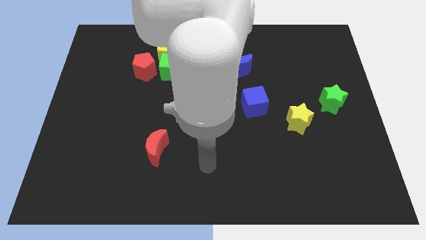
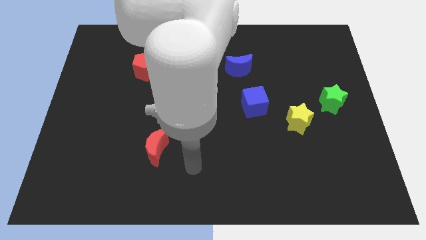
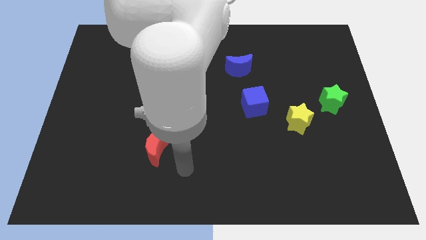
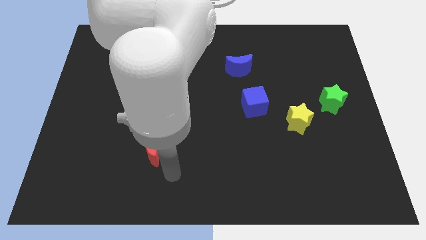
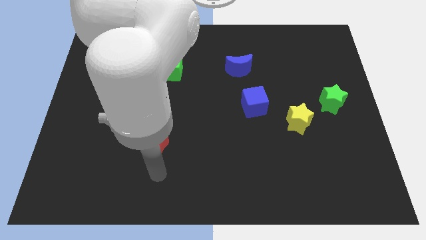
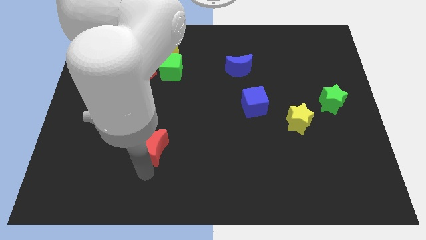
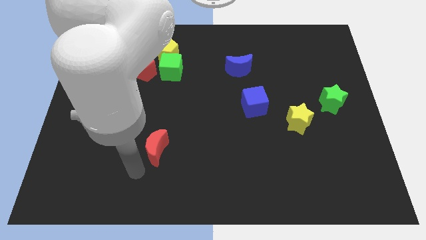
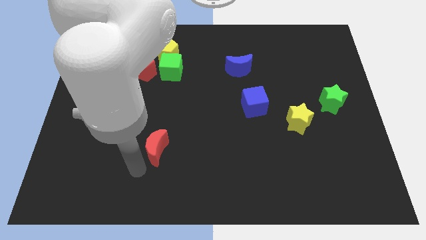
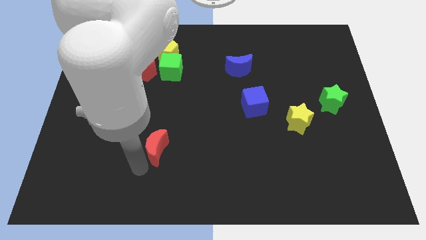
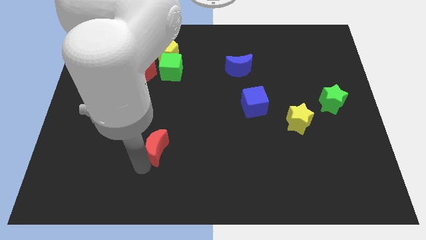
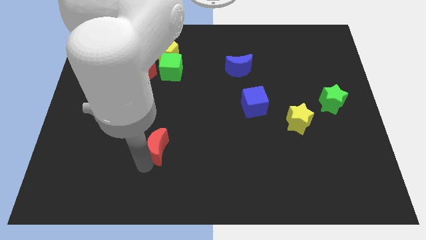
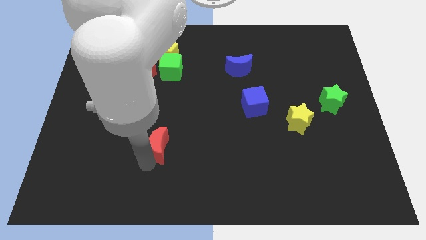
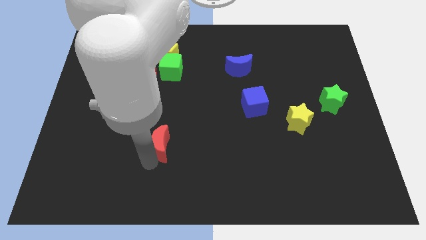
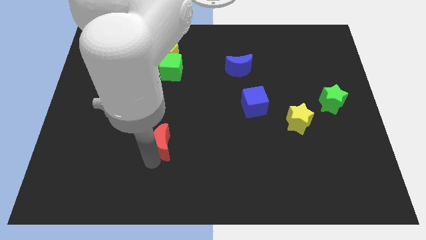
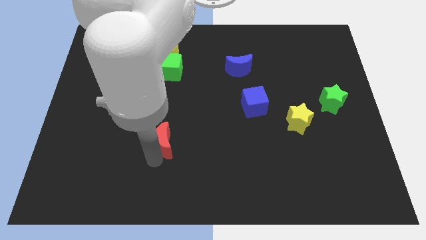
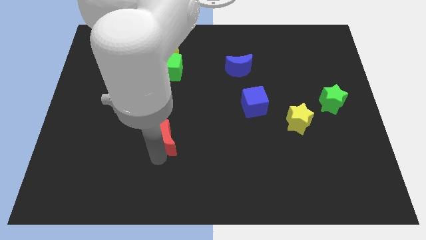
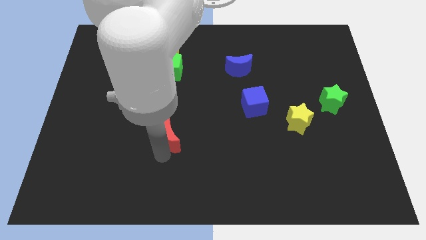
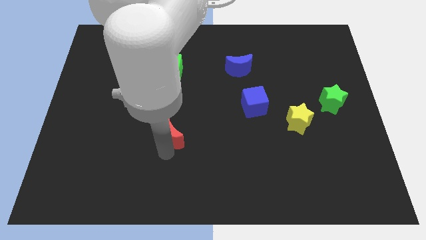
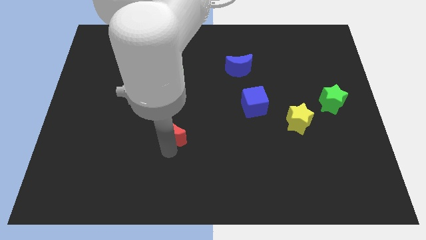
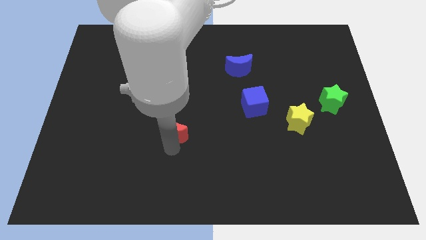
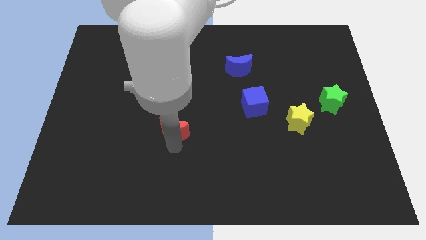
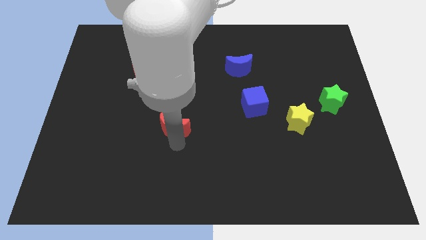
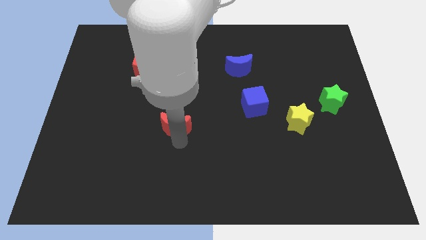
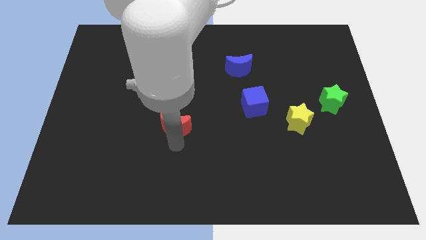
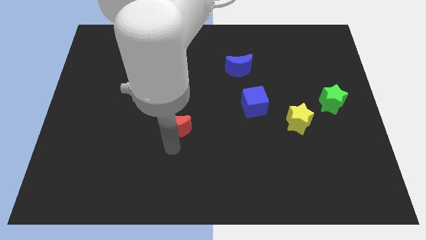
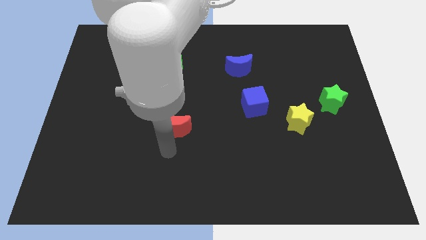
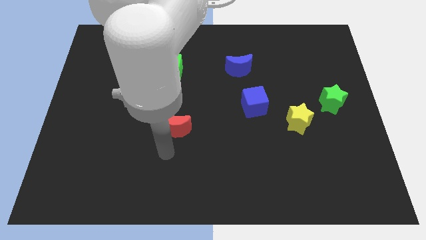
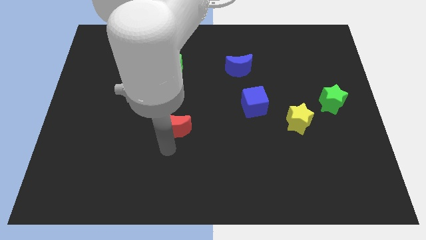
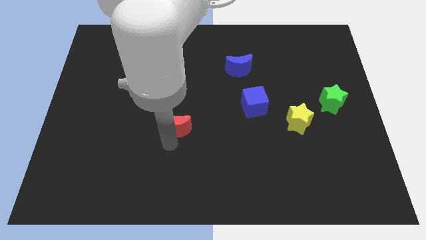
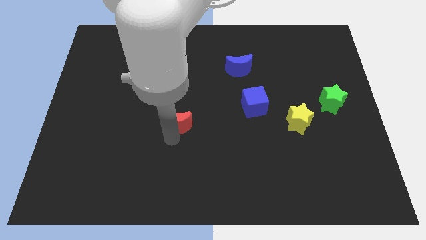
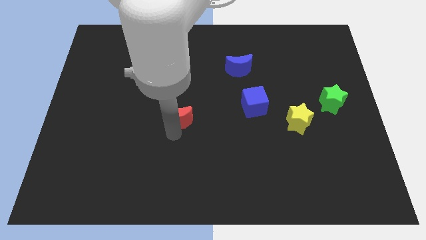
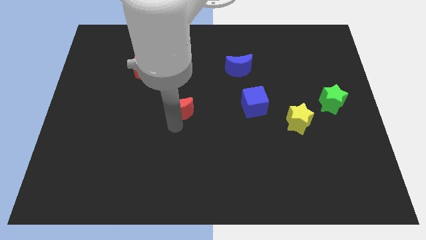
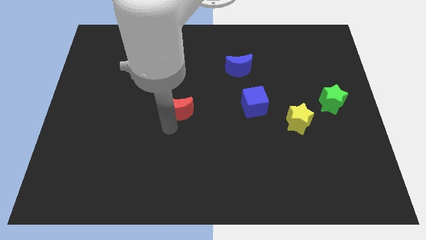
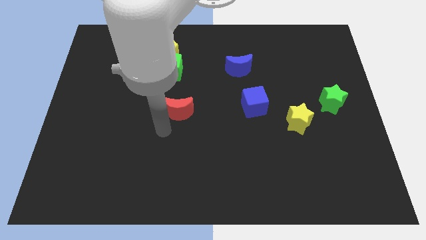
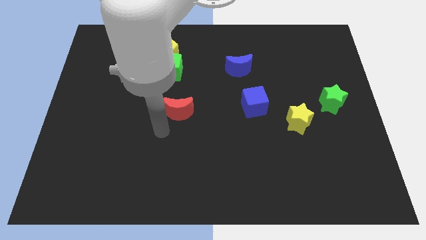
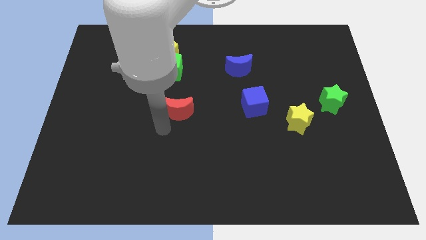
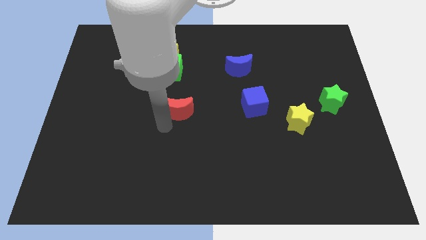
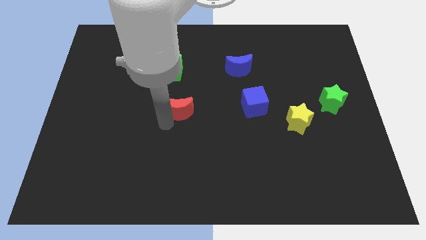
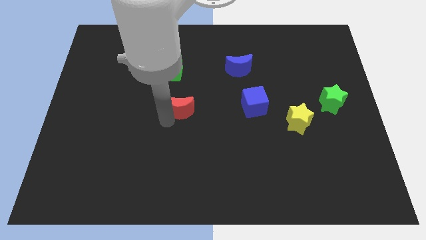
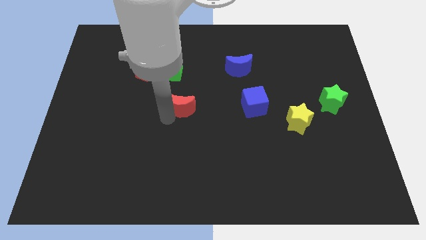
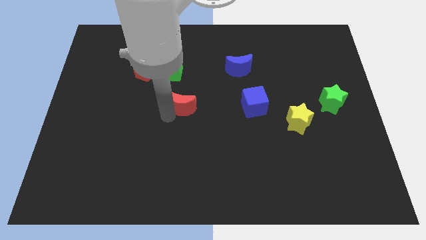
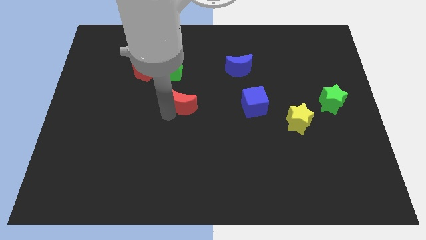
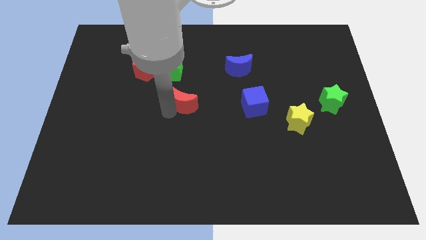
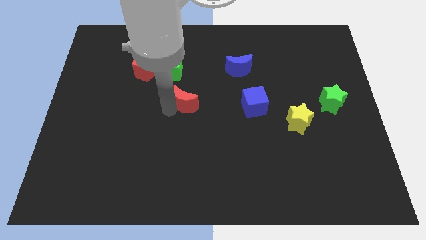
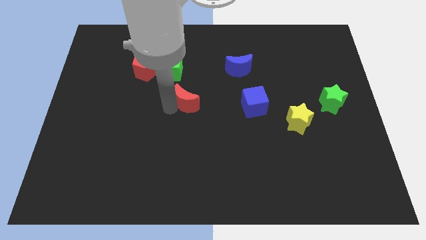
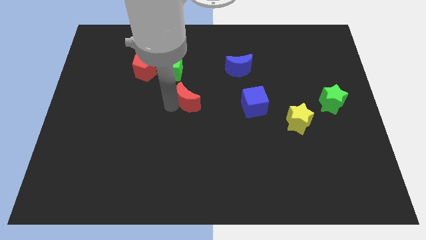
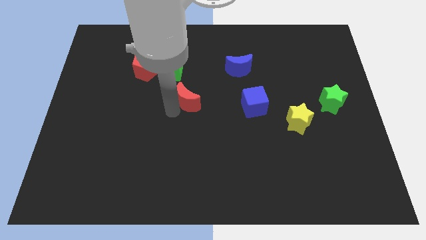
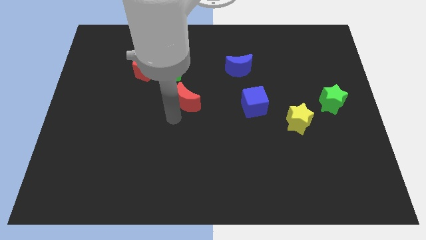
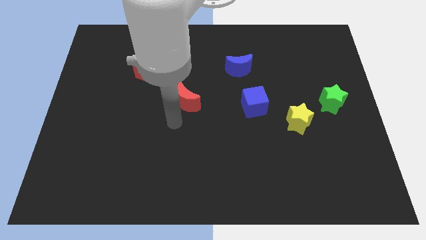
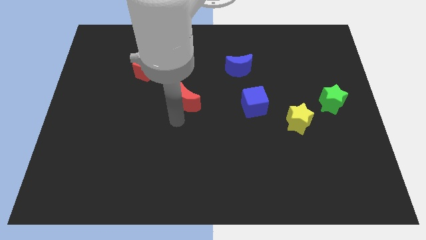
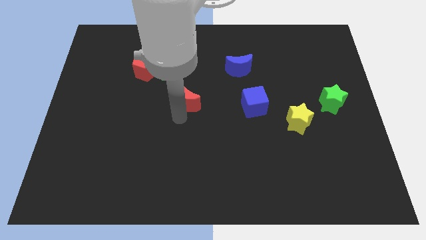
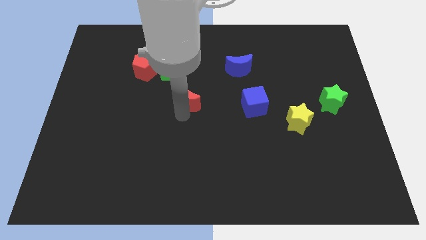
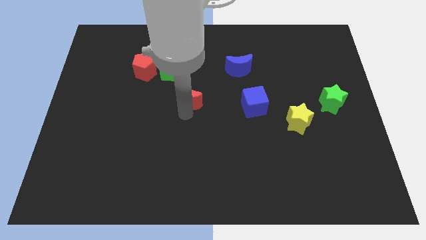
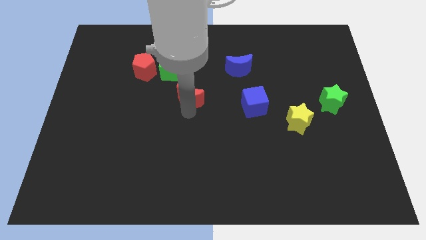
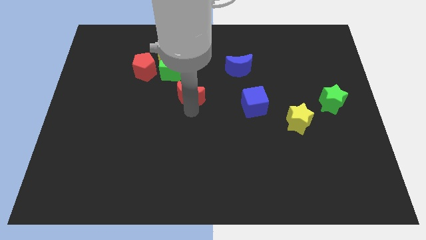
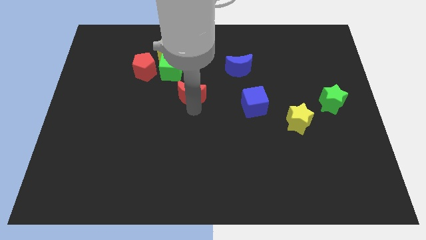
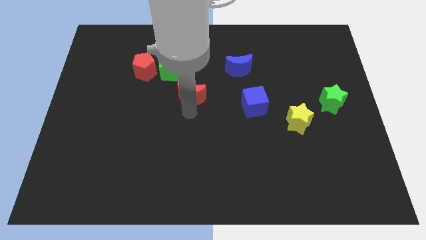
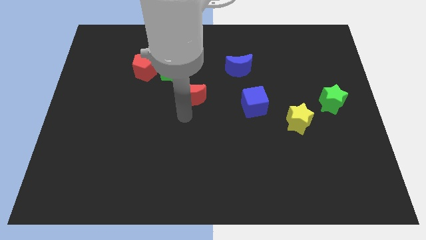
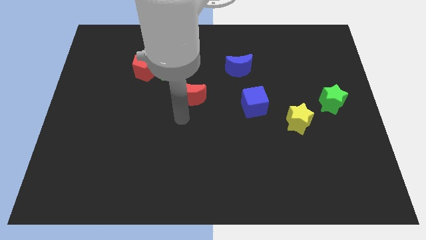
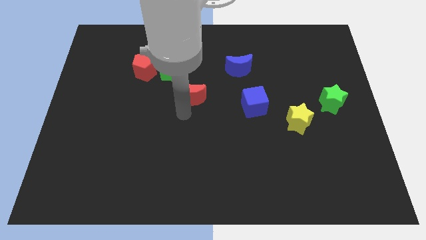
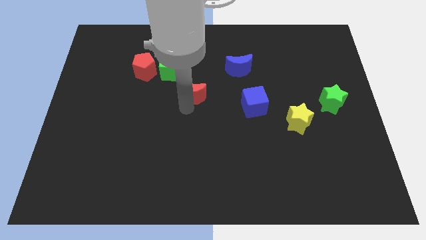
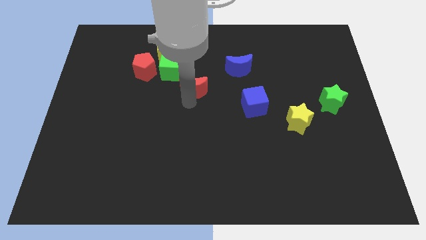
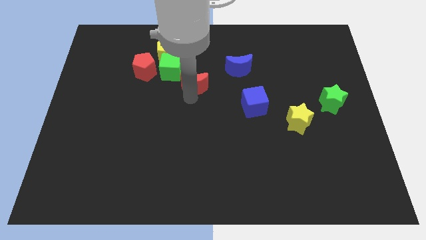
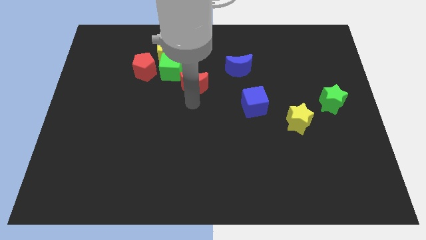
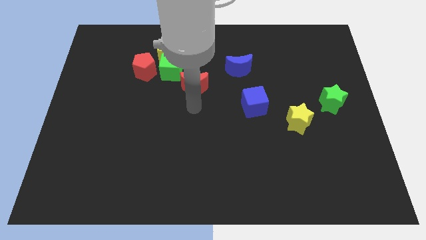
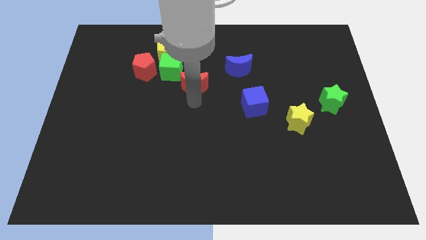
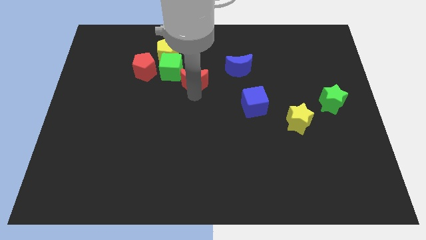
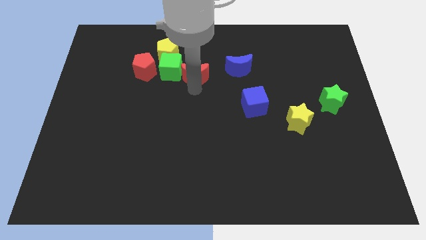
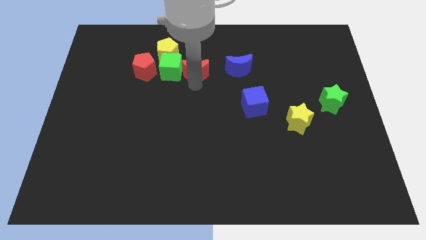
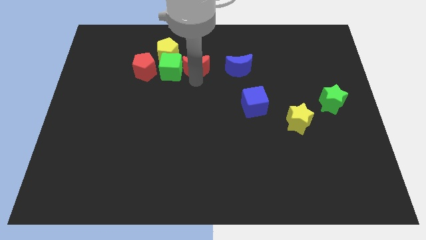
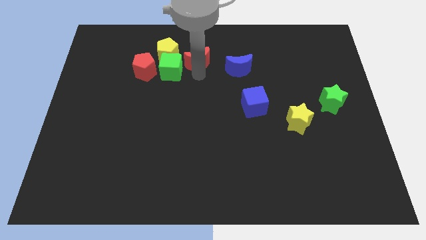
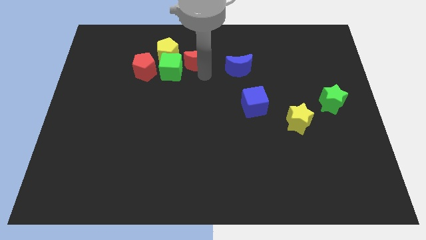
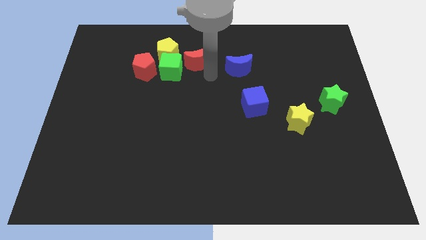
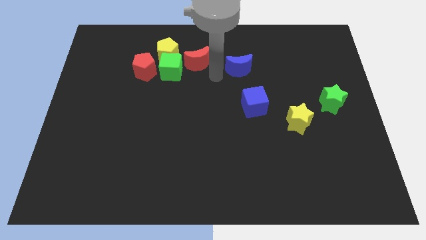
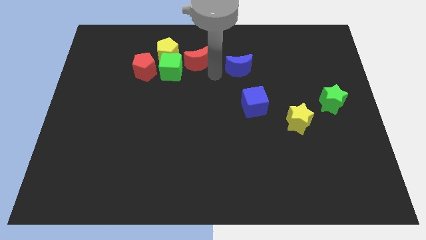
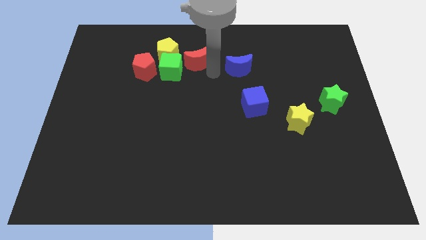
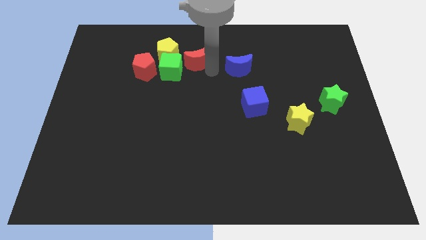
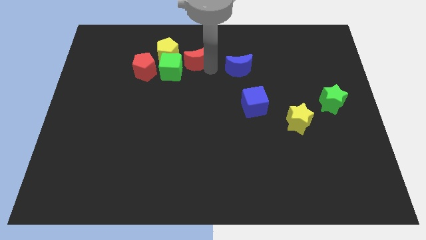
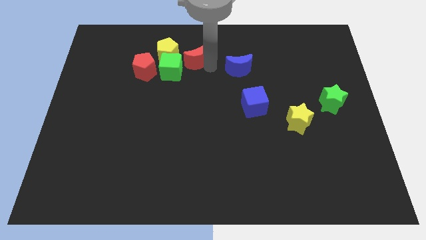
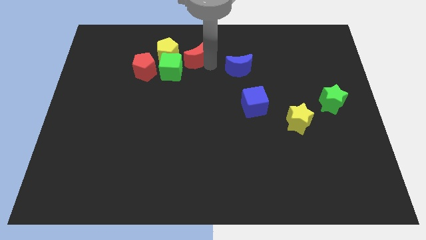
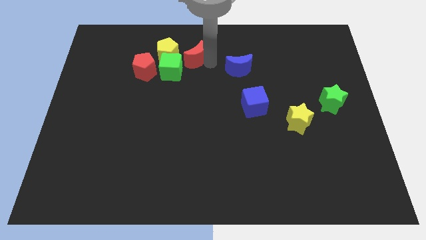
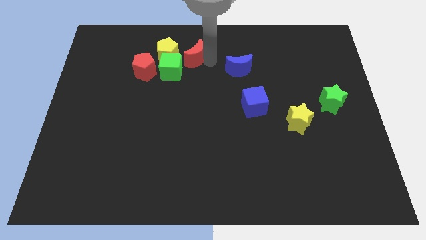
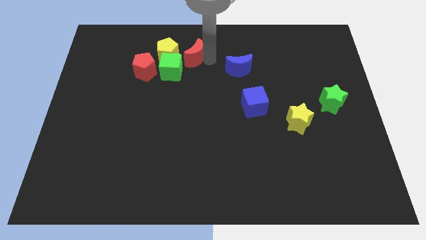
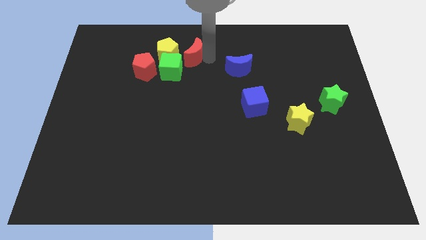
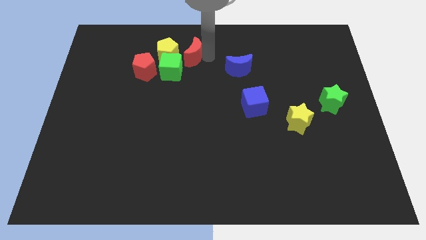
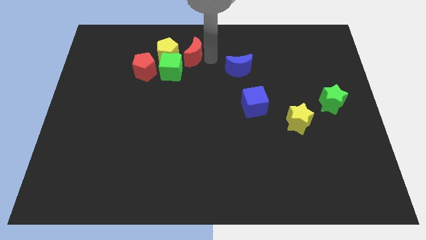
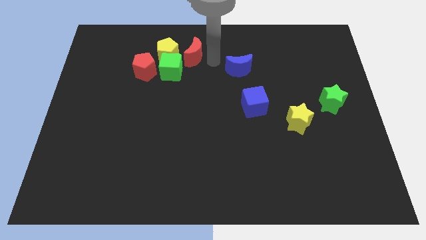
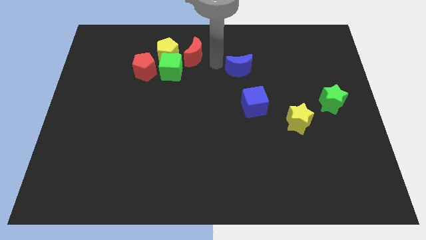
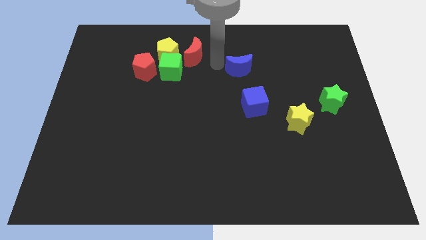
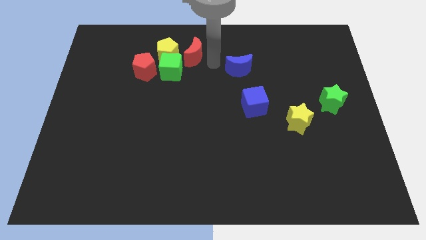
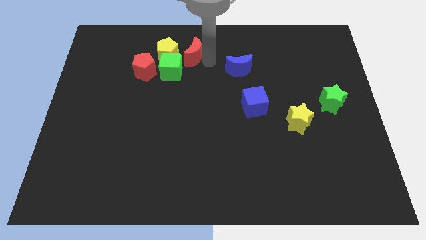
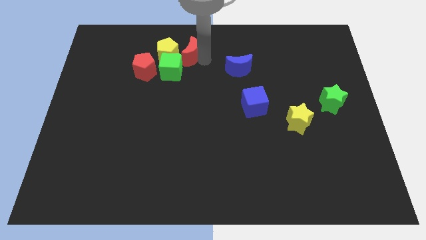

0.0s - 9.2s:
slide the red moon towards the yellow pentagon
